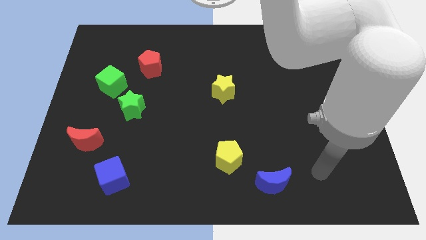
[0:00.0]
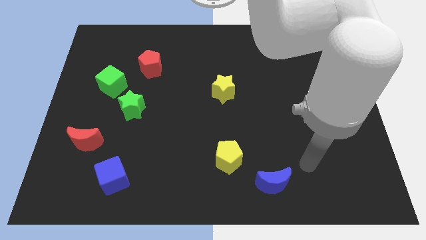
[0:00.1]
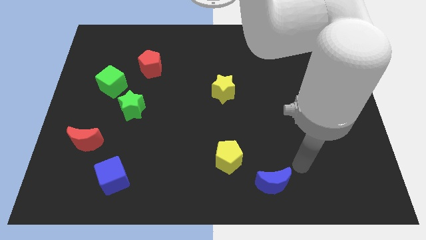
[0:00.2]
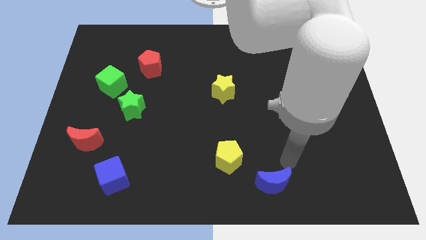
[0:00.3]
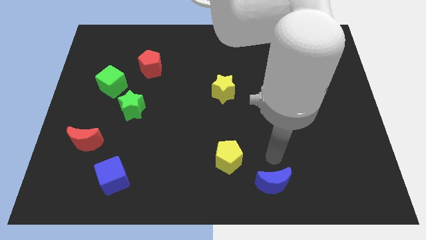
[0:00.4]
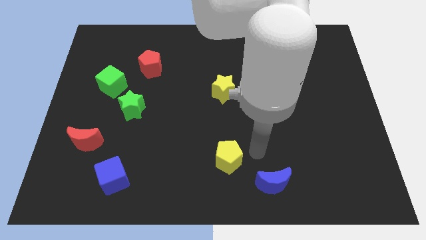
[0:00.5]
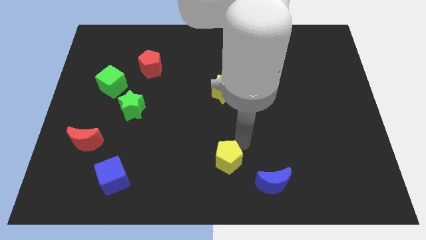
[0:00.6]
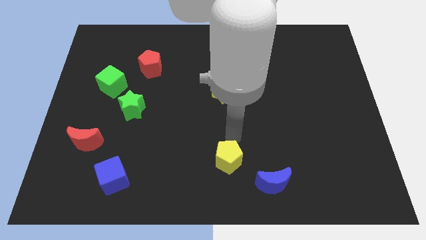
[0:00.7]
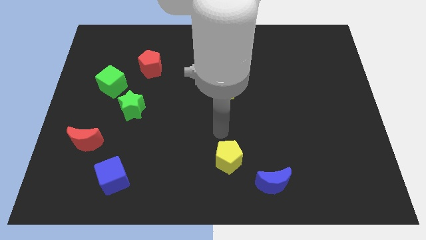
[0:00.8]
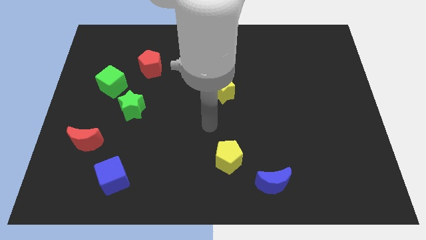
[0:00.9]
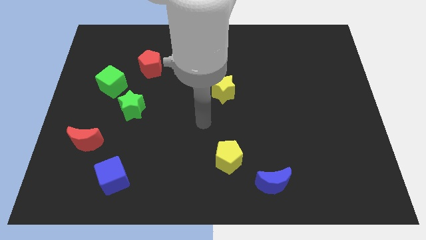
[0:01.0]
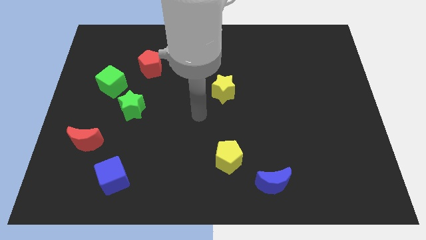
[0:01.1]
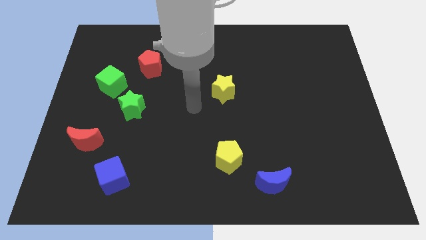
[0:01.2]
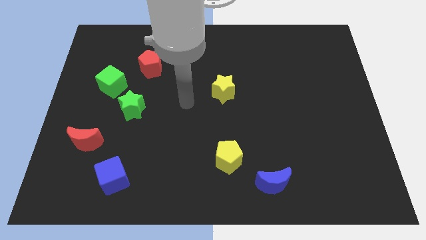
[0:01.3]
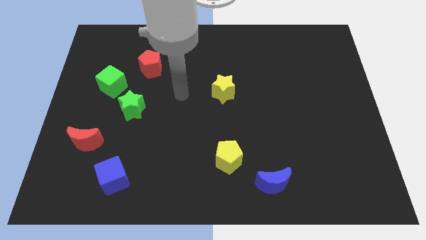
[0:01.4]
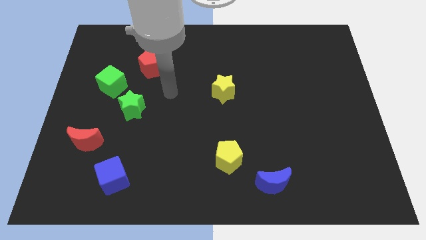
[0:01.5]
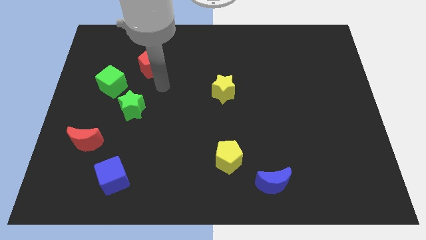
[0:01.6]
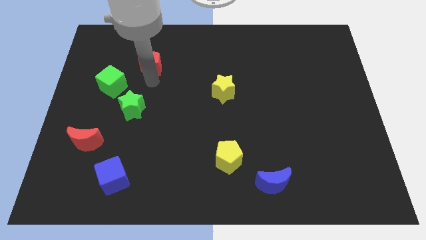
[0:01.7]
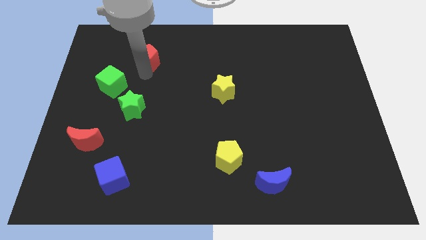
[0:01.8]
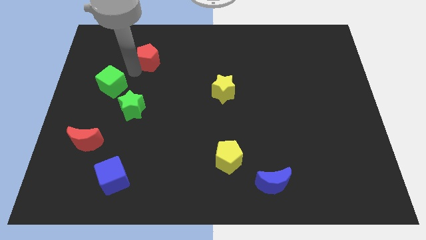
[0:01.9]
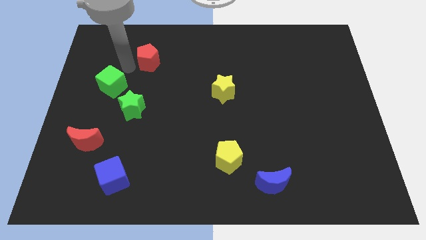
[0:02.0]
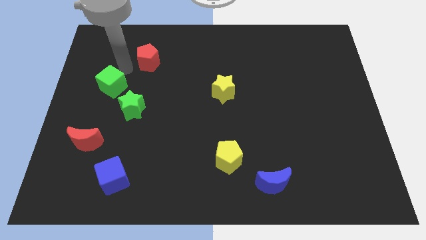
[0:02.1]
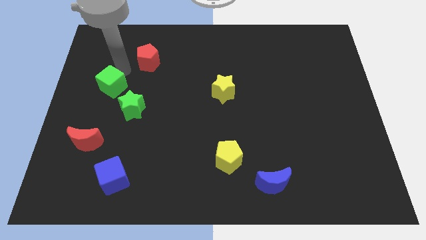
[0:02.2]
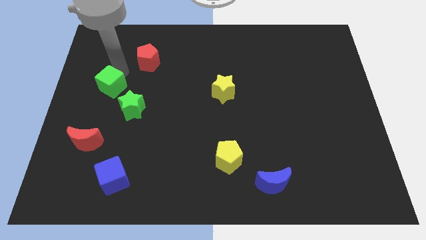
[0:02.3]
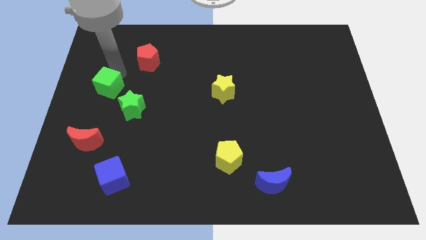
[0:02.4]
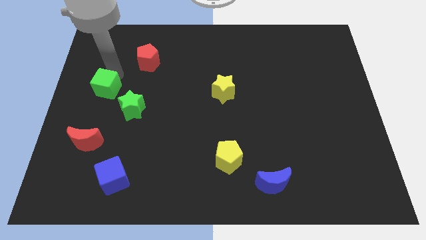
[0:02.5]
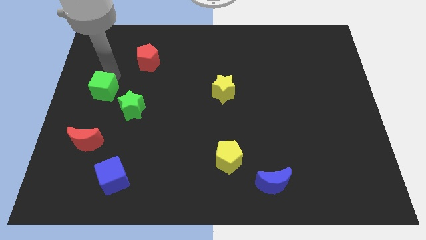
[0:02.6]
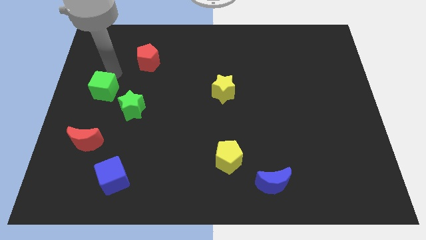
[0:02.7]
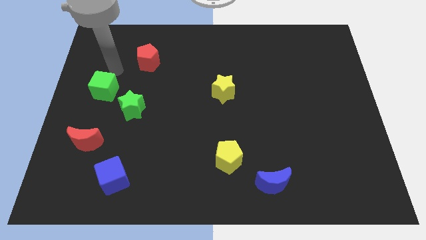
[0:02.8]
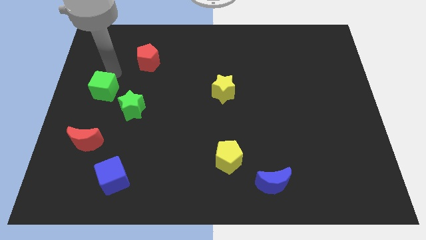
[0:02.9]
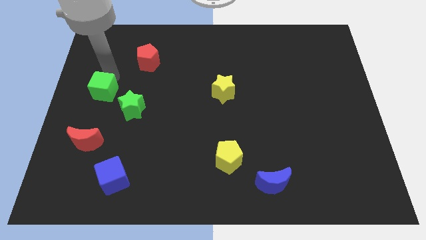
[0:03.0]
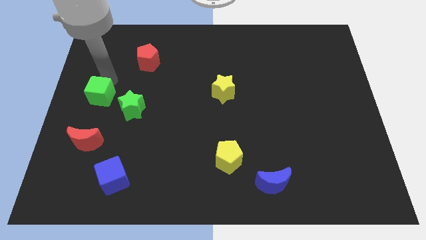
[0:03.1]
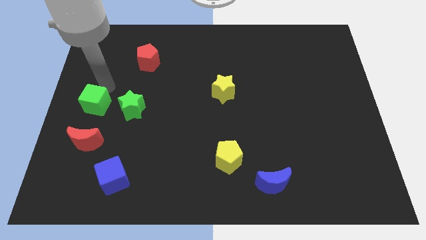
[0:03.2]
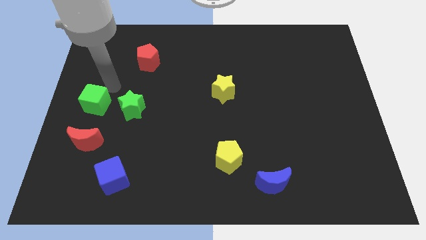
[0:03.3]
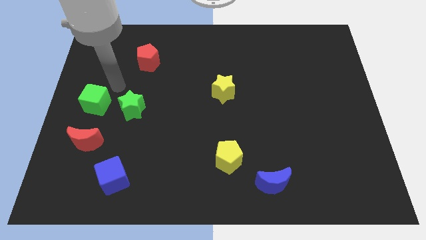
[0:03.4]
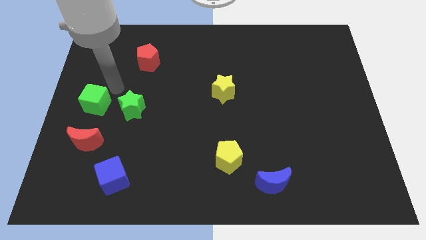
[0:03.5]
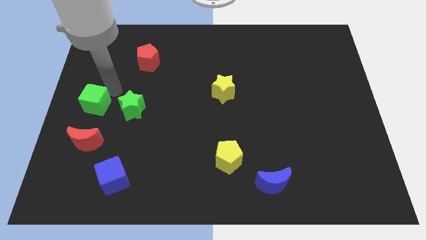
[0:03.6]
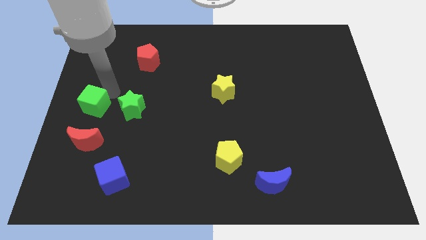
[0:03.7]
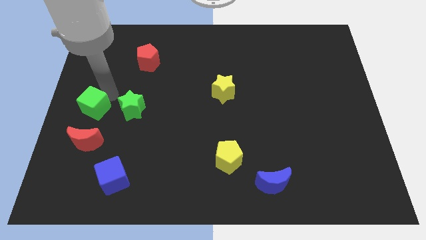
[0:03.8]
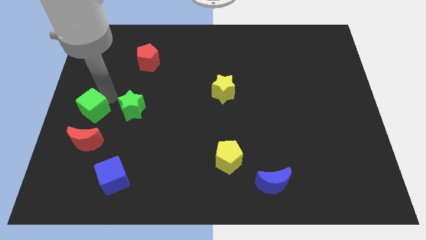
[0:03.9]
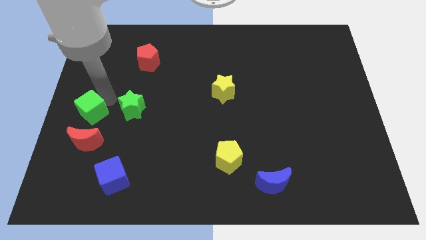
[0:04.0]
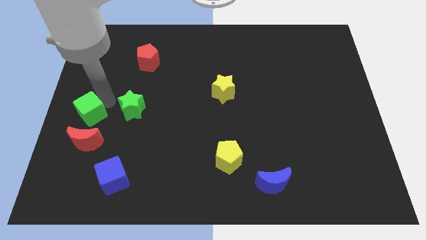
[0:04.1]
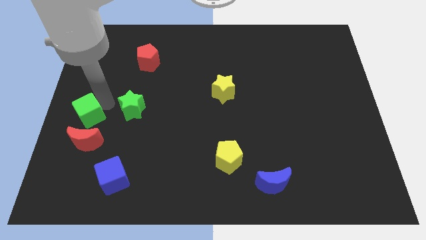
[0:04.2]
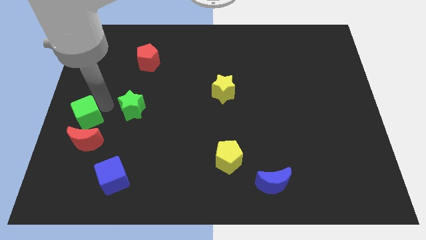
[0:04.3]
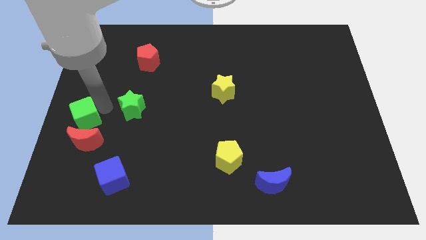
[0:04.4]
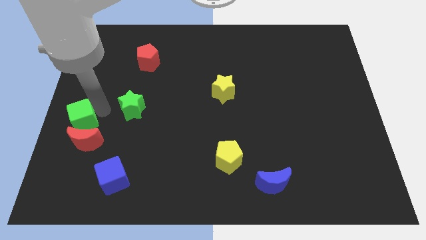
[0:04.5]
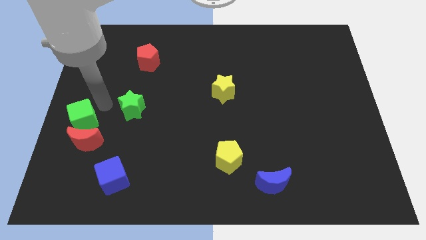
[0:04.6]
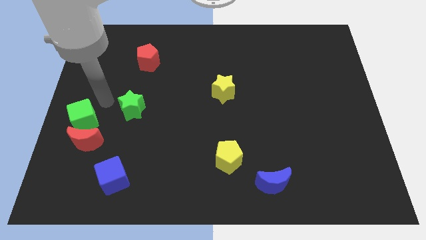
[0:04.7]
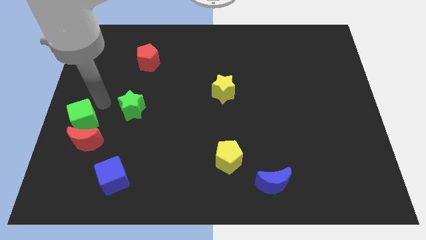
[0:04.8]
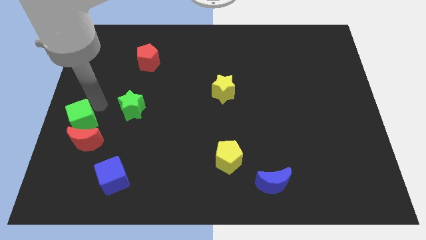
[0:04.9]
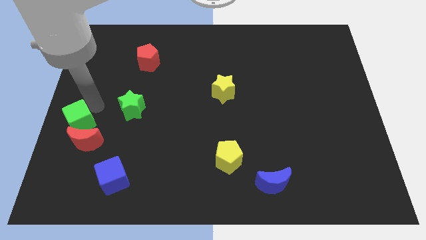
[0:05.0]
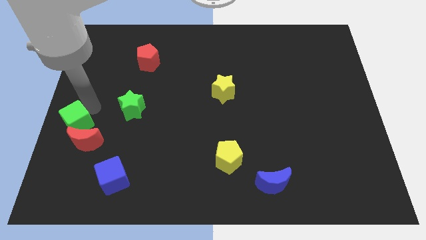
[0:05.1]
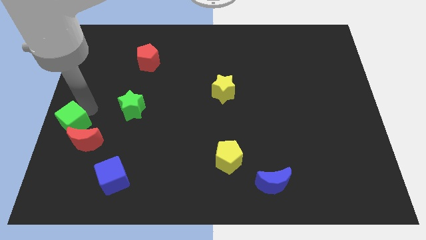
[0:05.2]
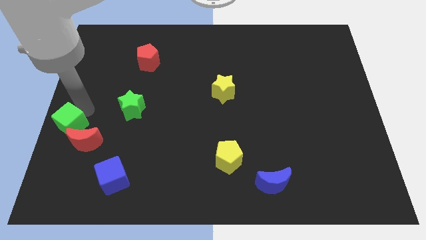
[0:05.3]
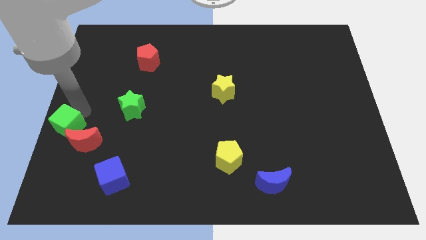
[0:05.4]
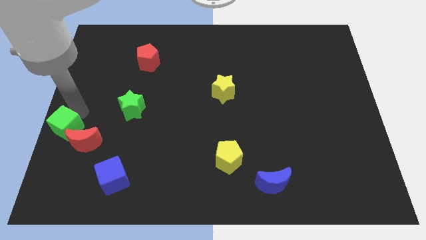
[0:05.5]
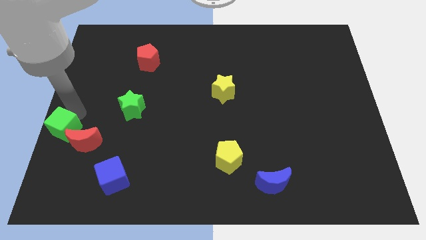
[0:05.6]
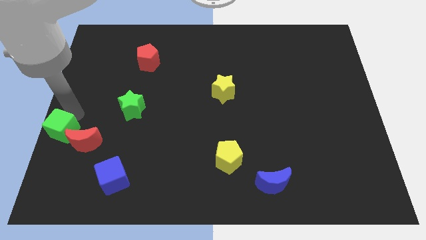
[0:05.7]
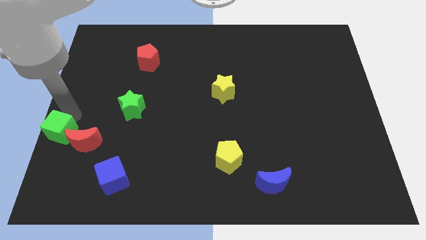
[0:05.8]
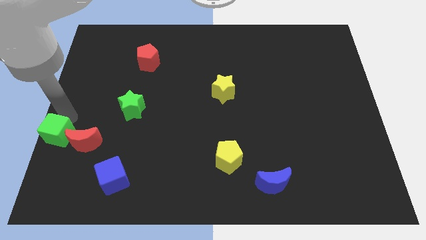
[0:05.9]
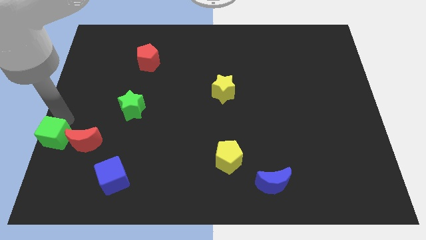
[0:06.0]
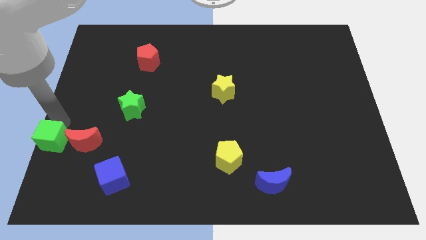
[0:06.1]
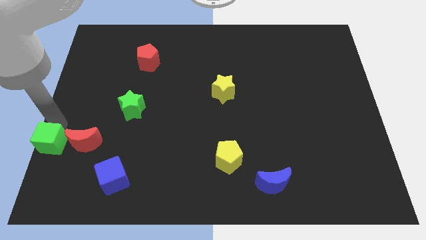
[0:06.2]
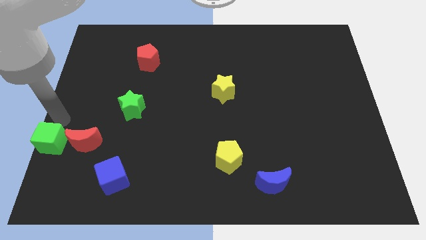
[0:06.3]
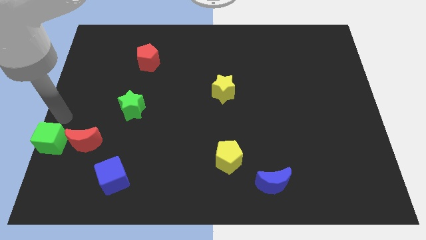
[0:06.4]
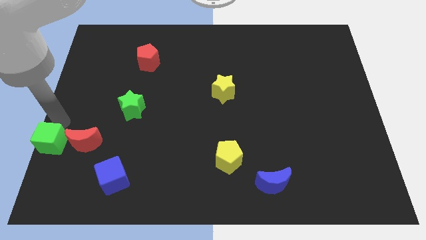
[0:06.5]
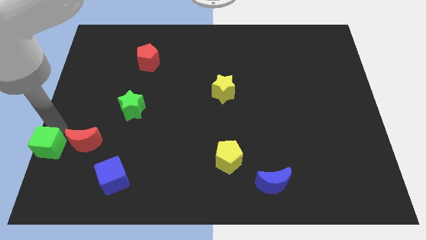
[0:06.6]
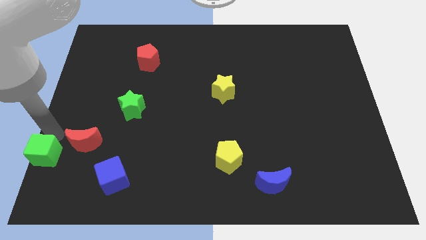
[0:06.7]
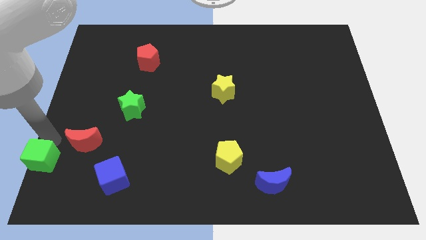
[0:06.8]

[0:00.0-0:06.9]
slide the green cube to the bottom left of the board
